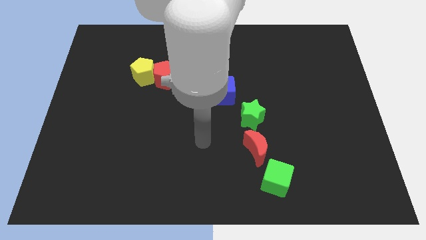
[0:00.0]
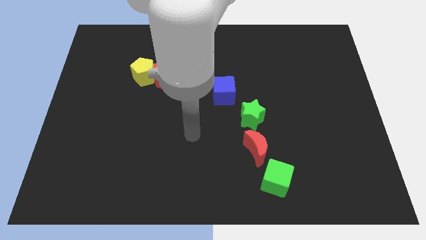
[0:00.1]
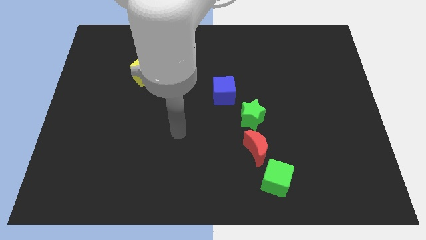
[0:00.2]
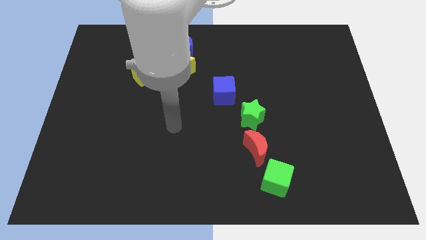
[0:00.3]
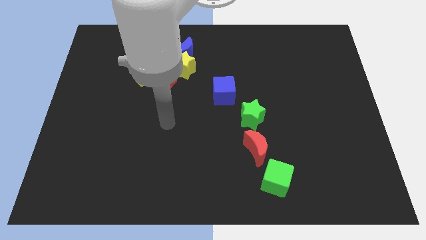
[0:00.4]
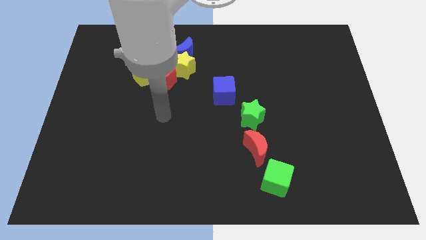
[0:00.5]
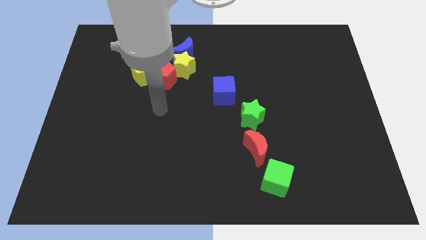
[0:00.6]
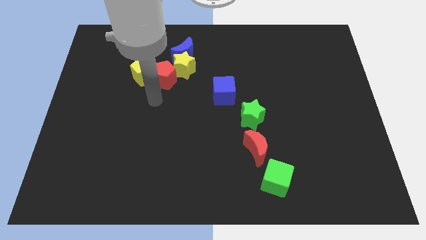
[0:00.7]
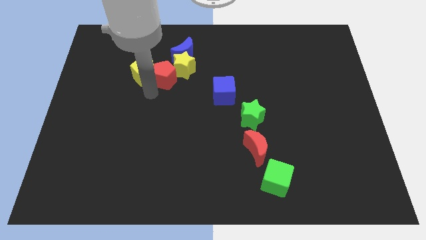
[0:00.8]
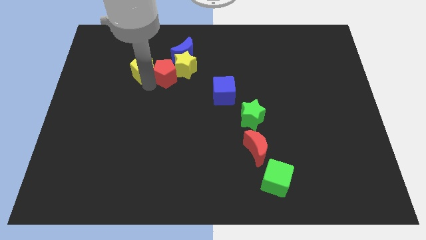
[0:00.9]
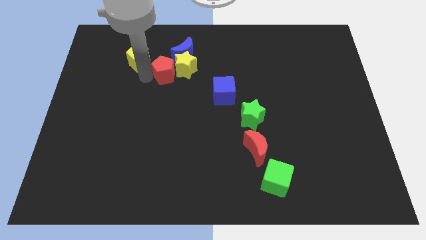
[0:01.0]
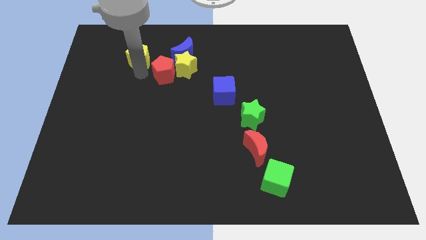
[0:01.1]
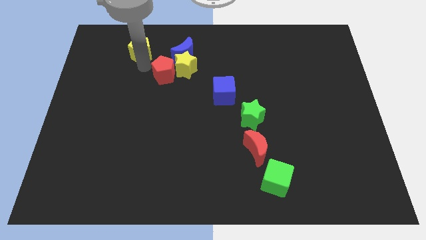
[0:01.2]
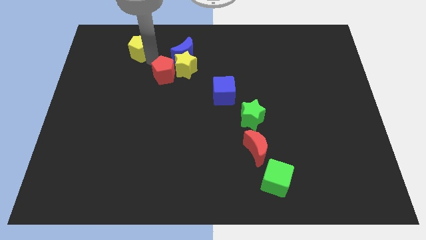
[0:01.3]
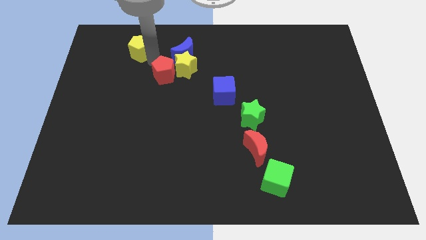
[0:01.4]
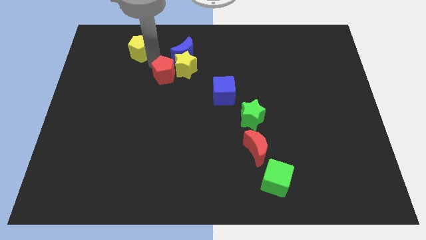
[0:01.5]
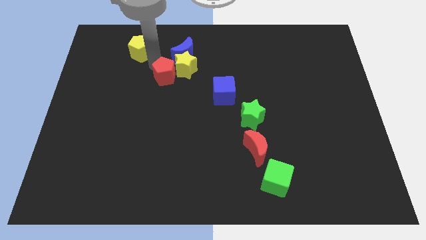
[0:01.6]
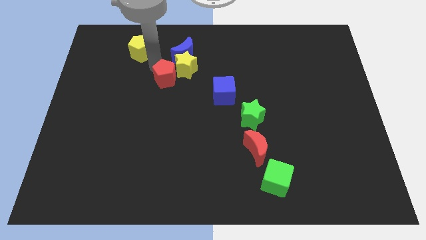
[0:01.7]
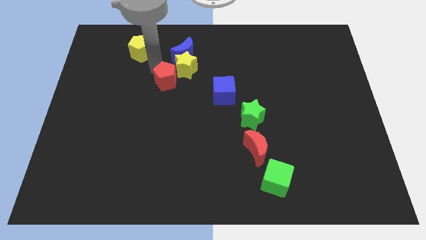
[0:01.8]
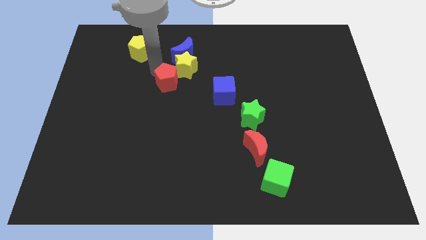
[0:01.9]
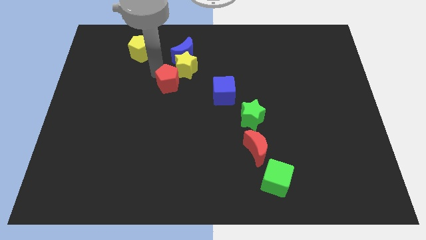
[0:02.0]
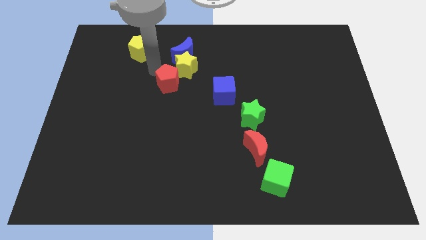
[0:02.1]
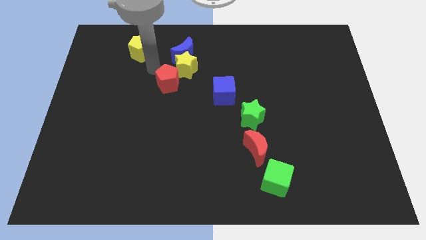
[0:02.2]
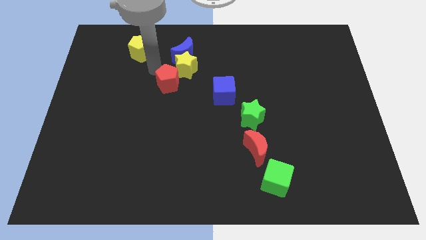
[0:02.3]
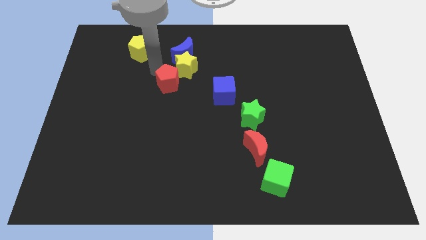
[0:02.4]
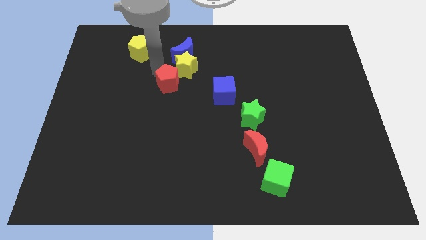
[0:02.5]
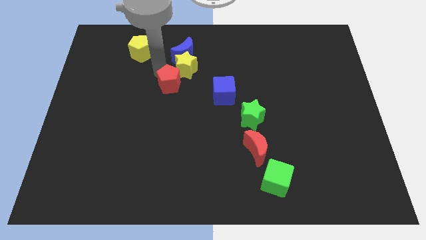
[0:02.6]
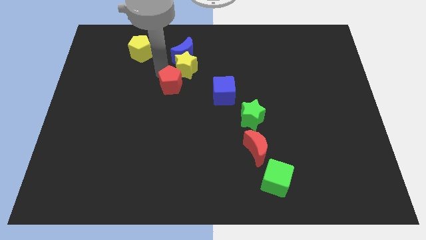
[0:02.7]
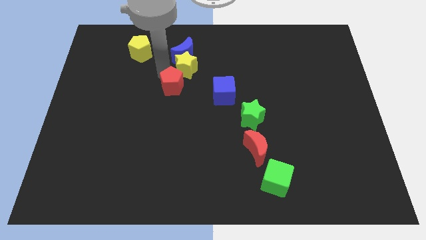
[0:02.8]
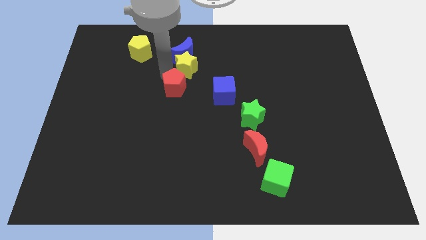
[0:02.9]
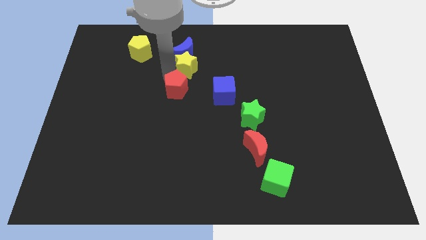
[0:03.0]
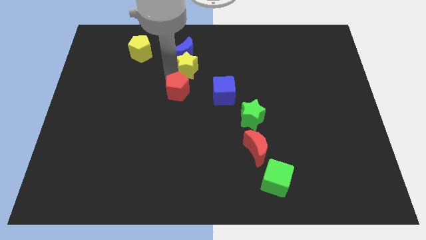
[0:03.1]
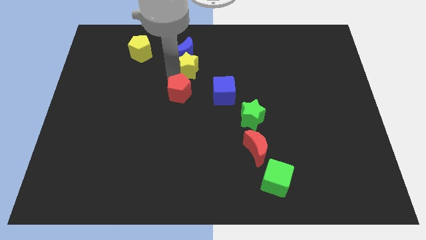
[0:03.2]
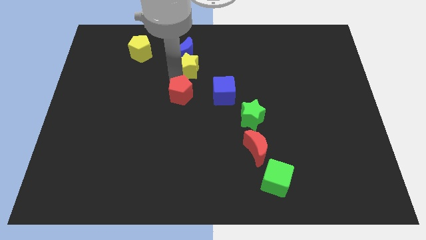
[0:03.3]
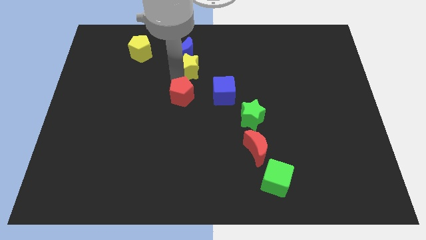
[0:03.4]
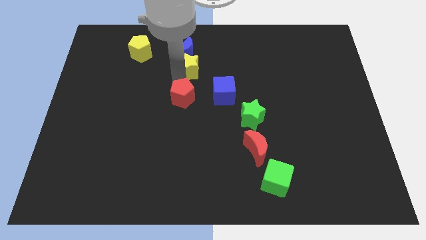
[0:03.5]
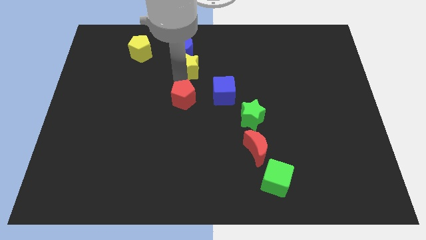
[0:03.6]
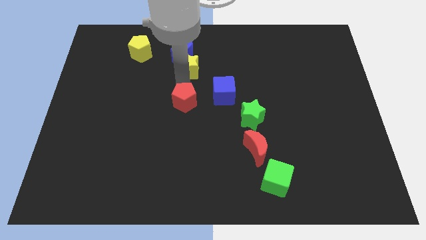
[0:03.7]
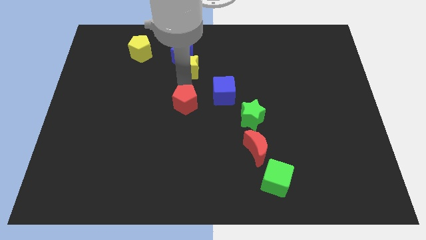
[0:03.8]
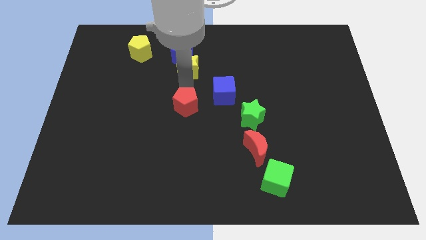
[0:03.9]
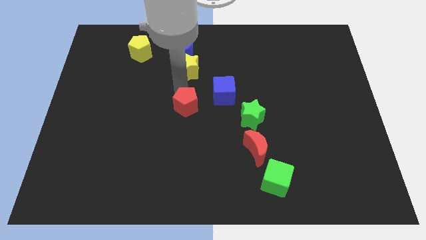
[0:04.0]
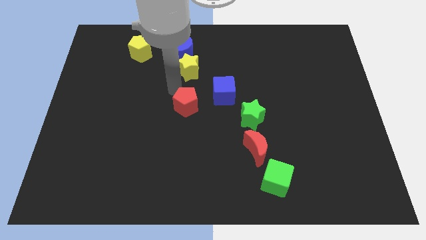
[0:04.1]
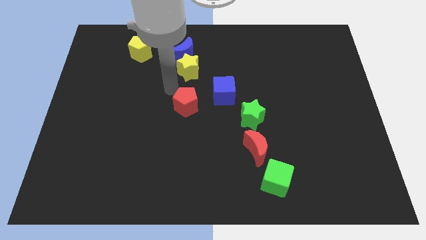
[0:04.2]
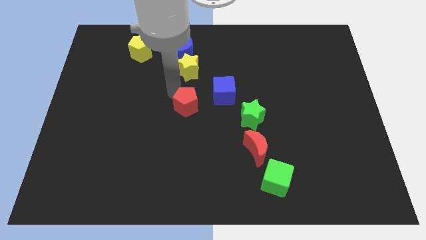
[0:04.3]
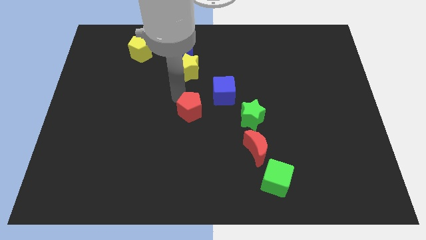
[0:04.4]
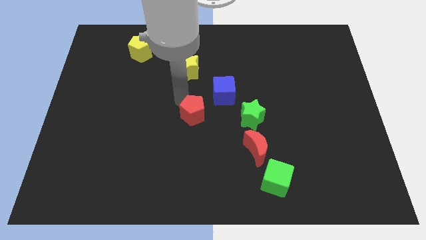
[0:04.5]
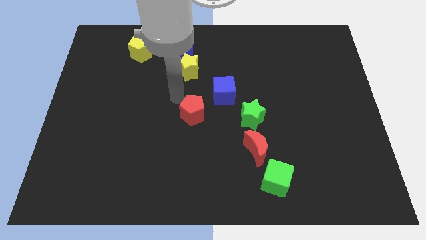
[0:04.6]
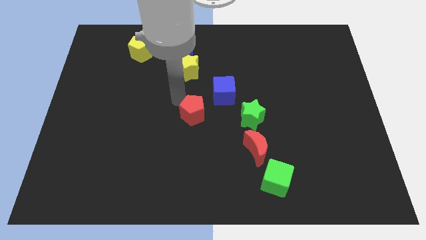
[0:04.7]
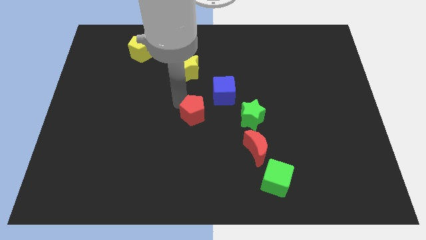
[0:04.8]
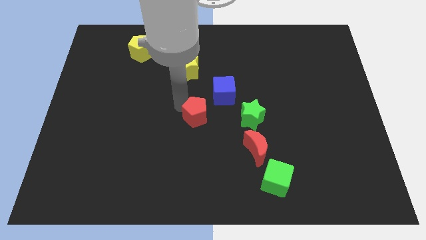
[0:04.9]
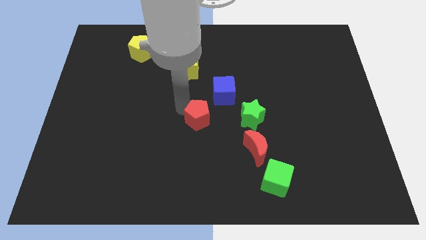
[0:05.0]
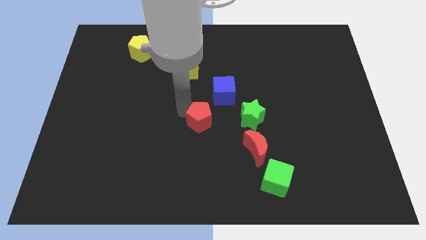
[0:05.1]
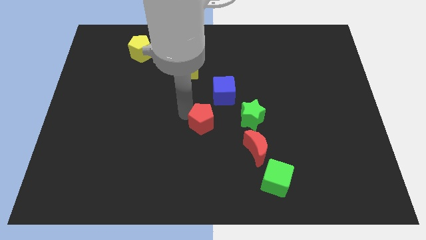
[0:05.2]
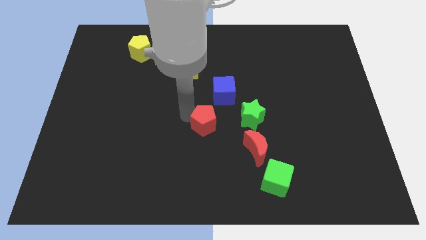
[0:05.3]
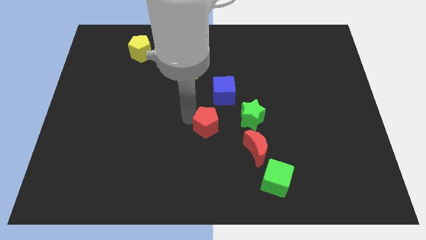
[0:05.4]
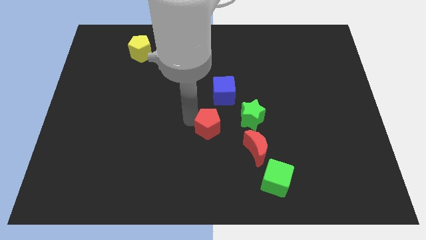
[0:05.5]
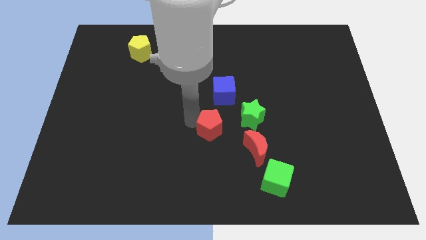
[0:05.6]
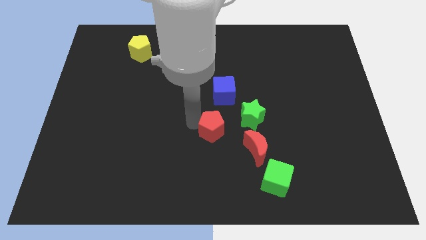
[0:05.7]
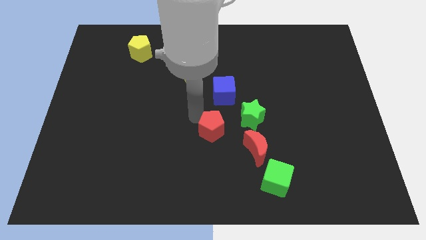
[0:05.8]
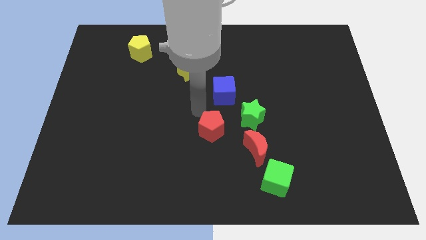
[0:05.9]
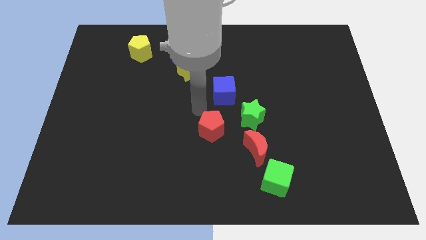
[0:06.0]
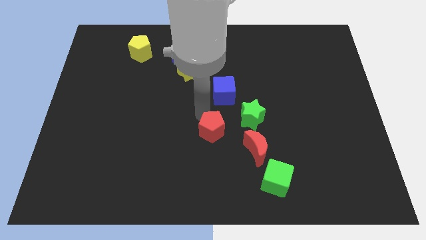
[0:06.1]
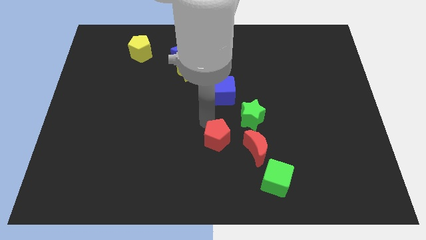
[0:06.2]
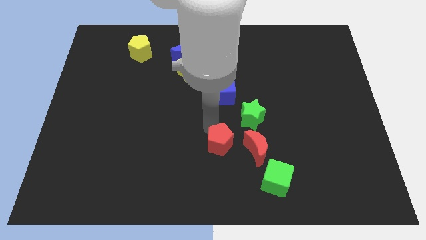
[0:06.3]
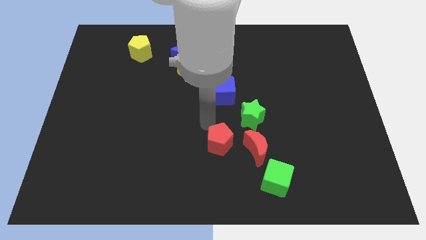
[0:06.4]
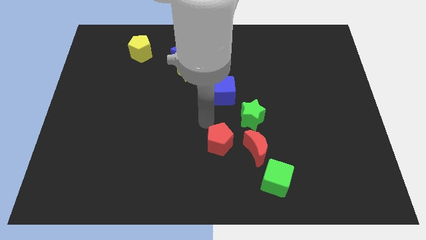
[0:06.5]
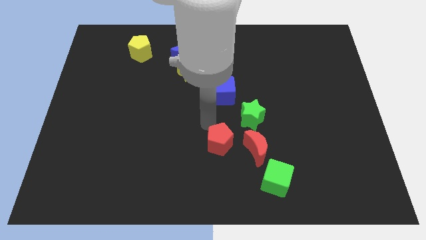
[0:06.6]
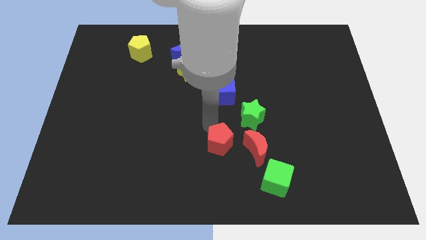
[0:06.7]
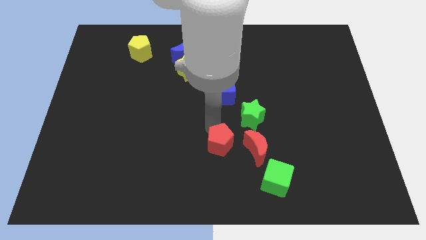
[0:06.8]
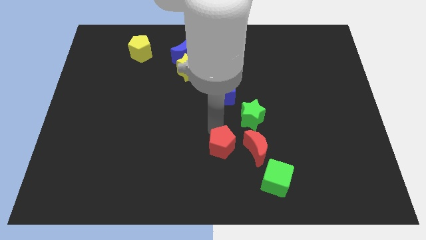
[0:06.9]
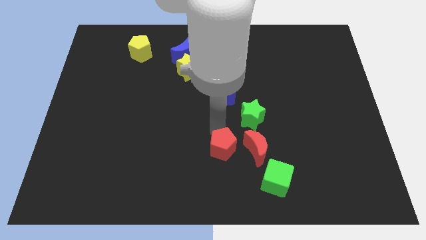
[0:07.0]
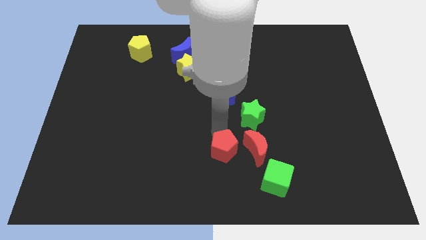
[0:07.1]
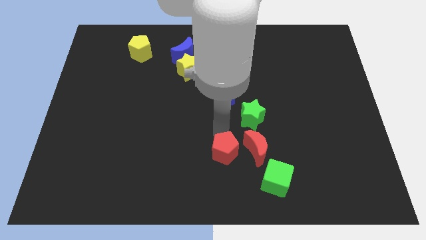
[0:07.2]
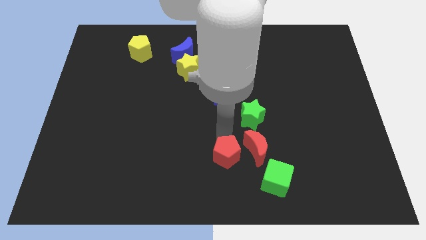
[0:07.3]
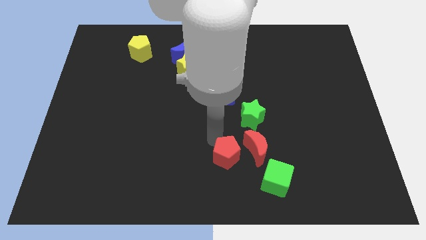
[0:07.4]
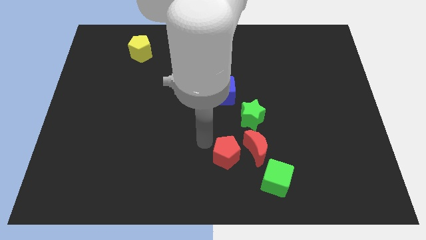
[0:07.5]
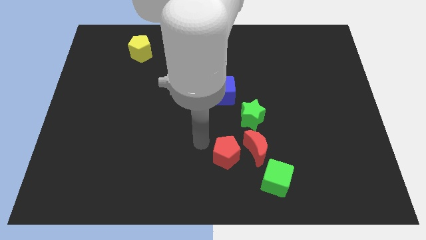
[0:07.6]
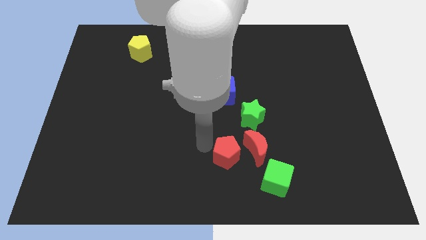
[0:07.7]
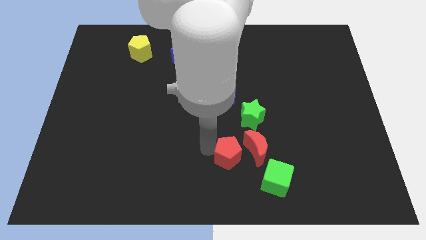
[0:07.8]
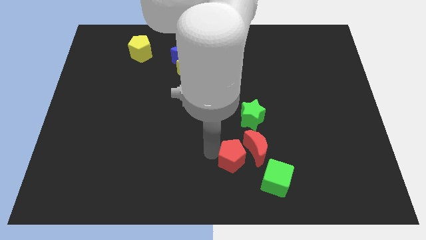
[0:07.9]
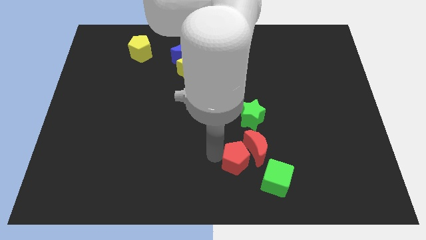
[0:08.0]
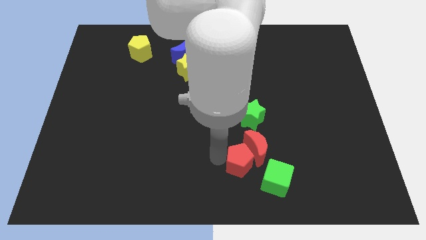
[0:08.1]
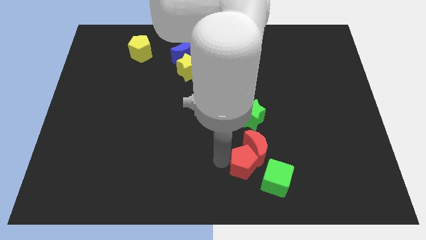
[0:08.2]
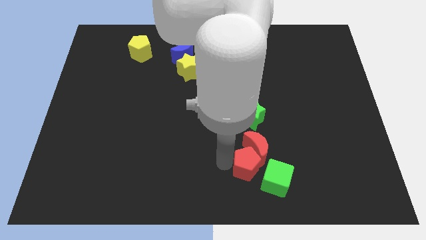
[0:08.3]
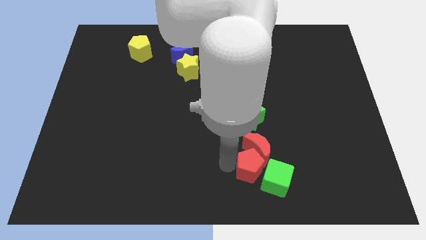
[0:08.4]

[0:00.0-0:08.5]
move the red pentagon next to the green cube
